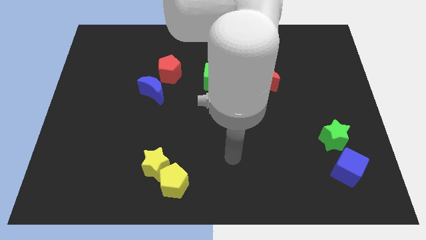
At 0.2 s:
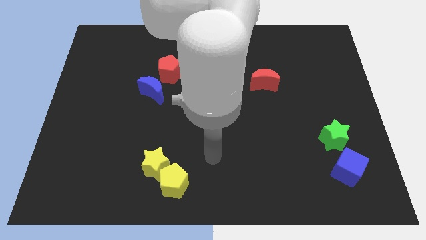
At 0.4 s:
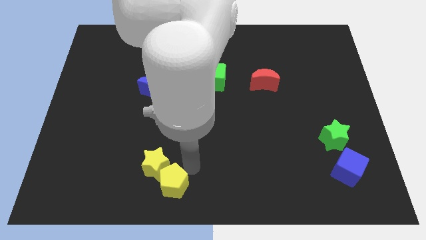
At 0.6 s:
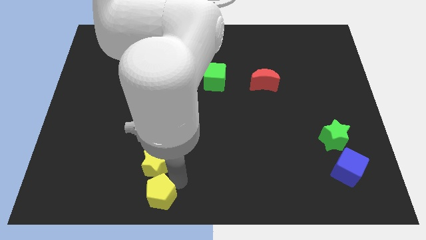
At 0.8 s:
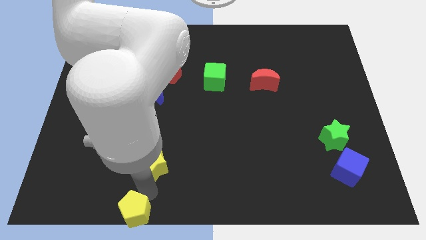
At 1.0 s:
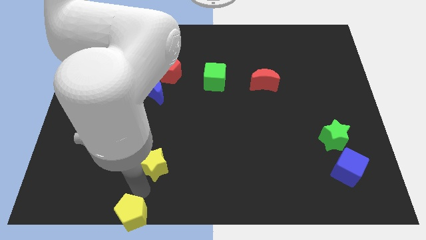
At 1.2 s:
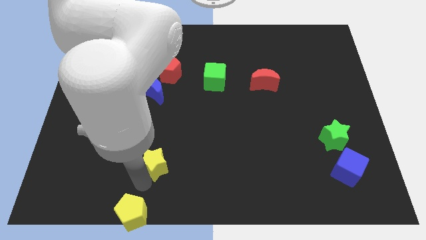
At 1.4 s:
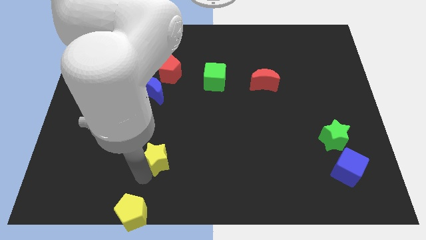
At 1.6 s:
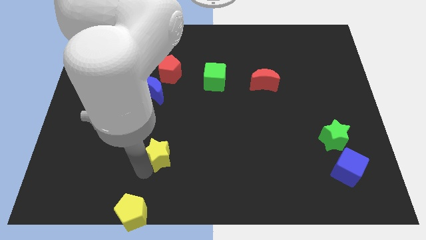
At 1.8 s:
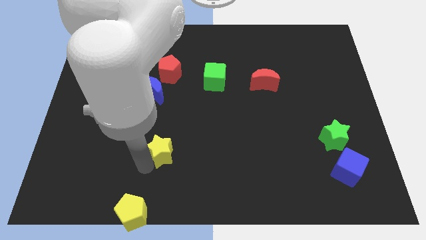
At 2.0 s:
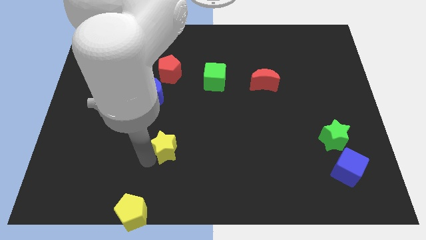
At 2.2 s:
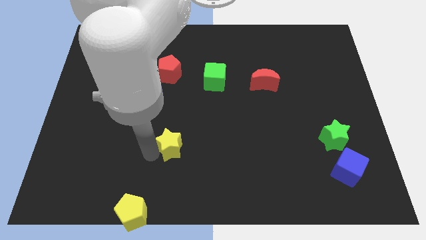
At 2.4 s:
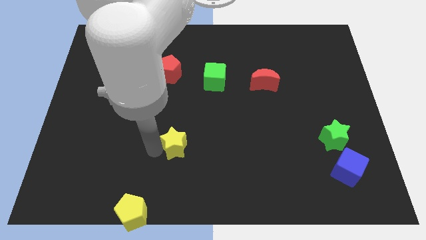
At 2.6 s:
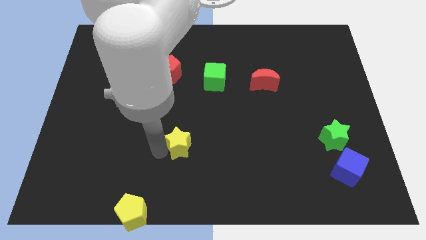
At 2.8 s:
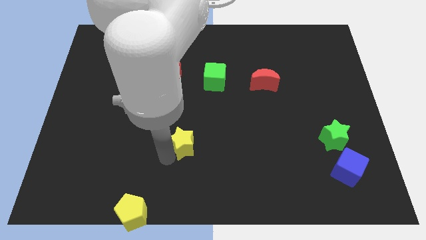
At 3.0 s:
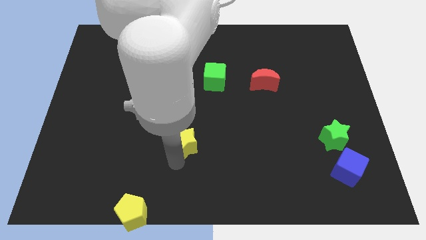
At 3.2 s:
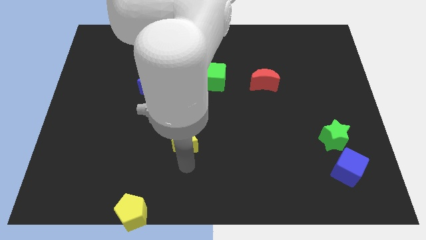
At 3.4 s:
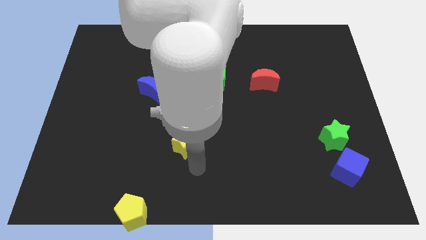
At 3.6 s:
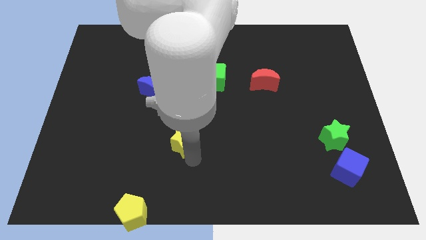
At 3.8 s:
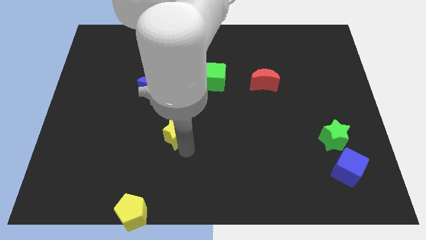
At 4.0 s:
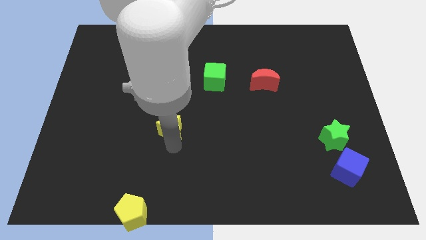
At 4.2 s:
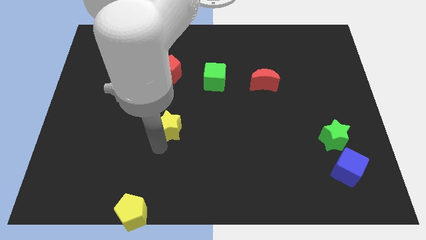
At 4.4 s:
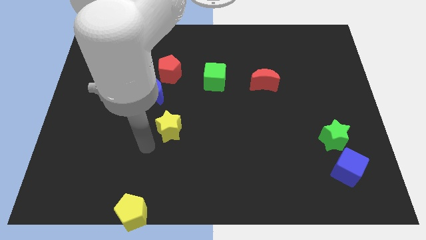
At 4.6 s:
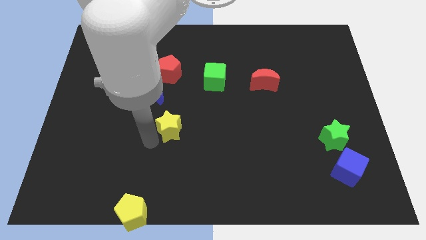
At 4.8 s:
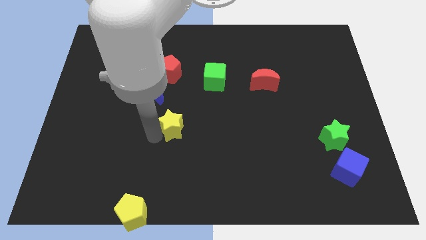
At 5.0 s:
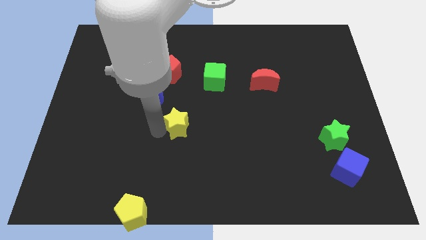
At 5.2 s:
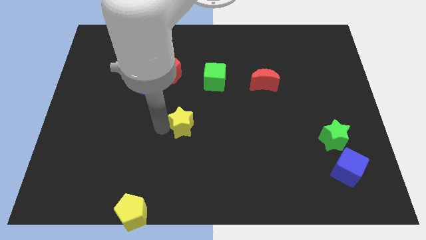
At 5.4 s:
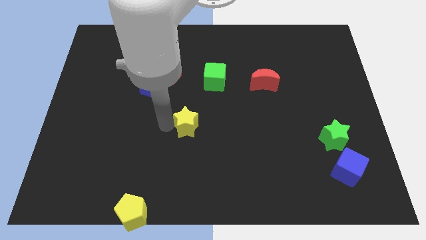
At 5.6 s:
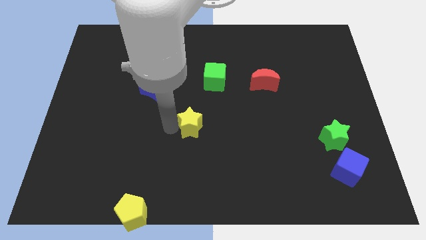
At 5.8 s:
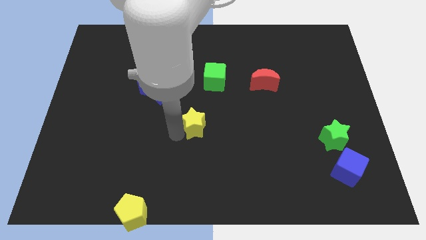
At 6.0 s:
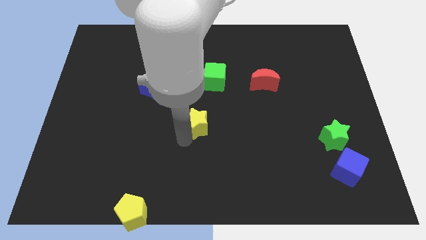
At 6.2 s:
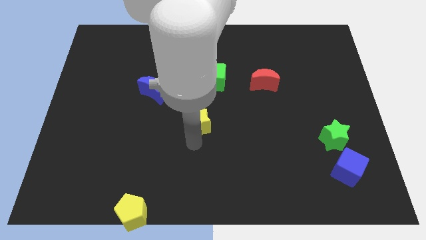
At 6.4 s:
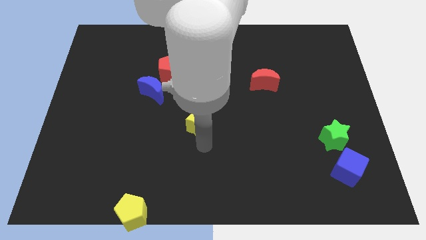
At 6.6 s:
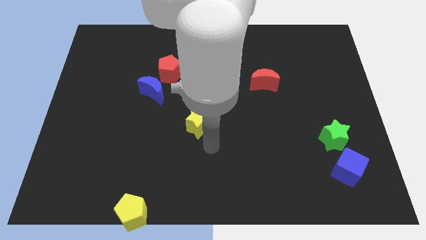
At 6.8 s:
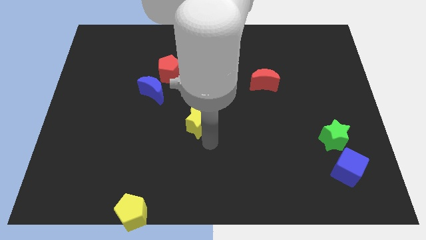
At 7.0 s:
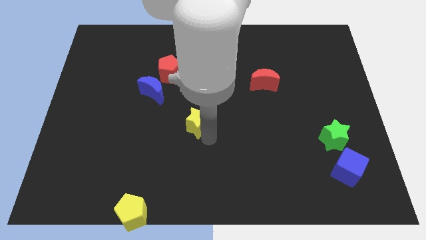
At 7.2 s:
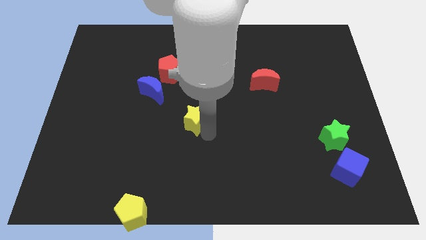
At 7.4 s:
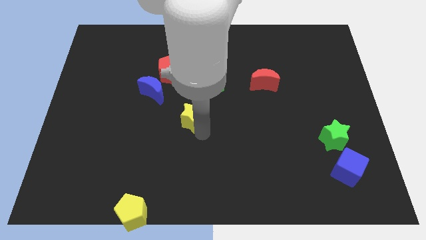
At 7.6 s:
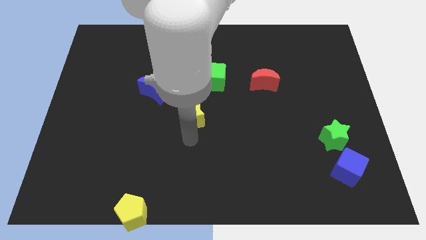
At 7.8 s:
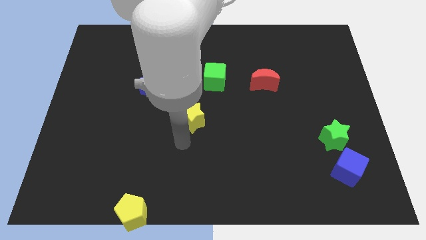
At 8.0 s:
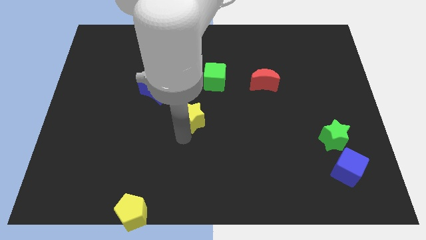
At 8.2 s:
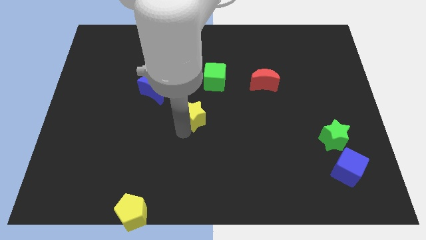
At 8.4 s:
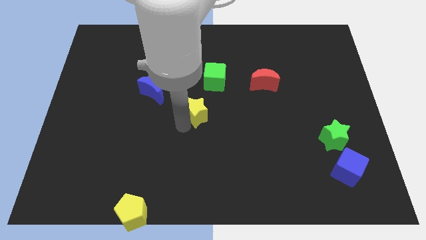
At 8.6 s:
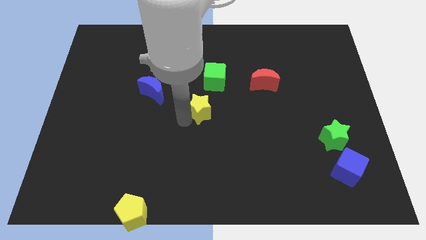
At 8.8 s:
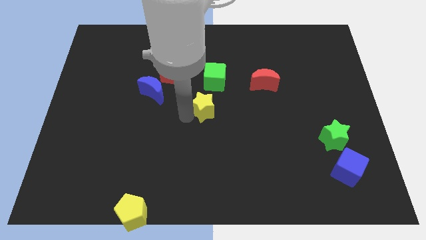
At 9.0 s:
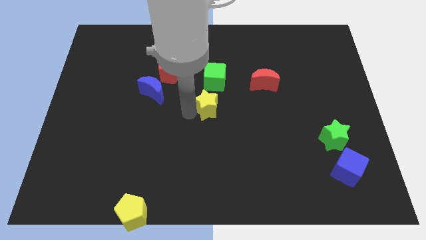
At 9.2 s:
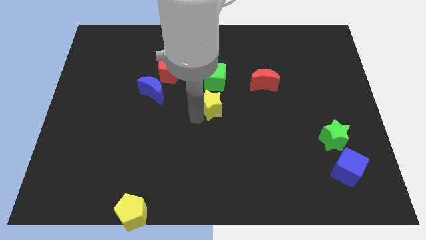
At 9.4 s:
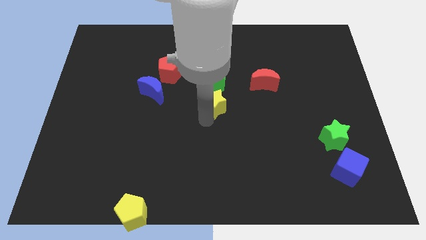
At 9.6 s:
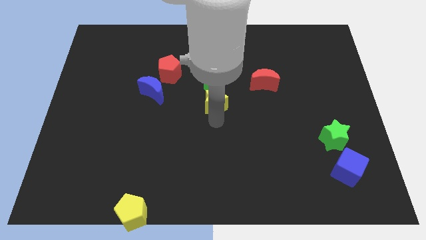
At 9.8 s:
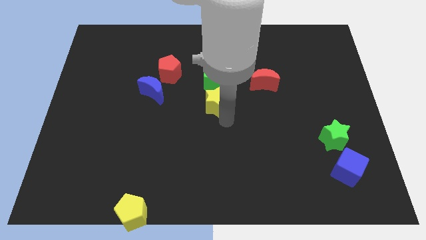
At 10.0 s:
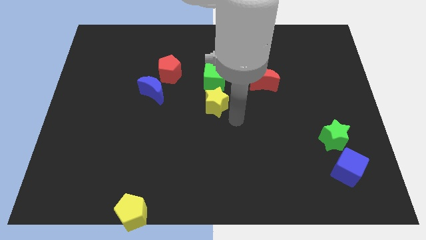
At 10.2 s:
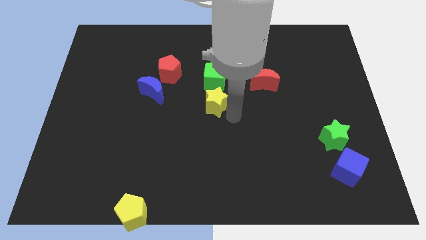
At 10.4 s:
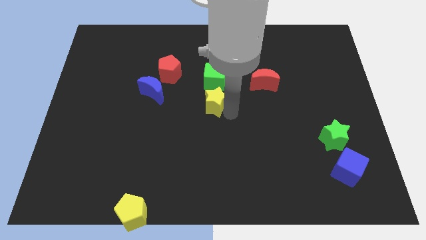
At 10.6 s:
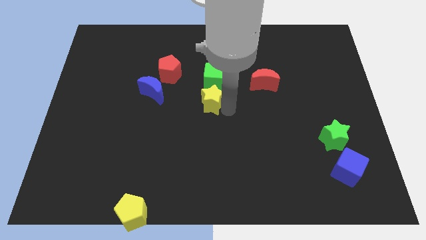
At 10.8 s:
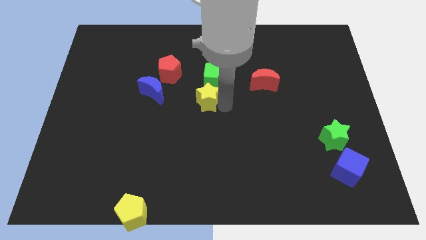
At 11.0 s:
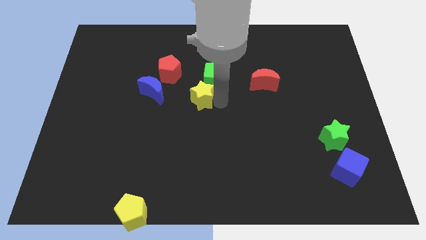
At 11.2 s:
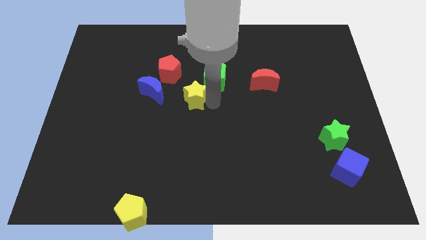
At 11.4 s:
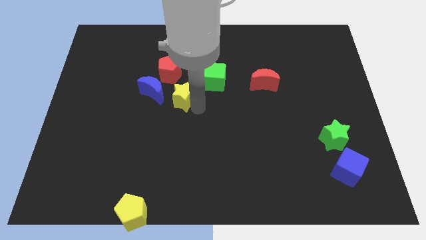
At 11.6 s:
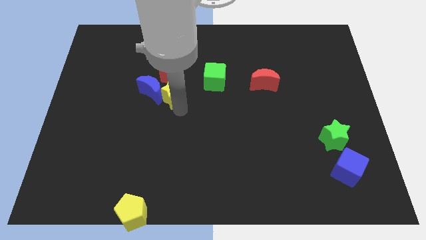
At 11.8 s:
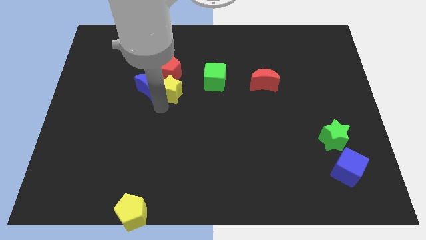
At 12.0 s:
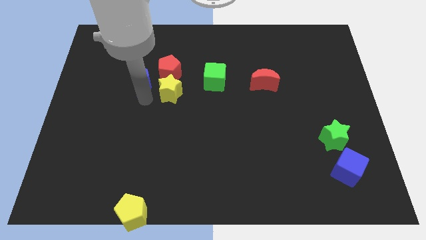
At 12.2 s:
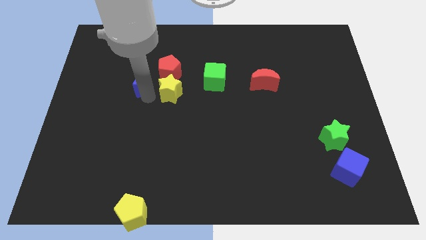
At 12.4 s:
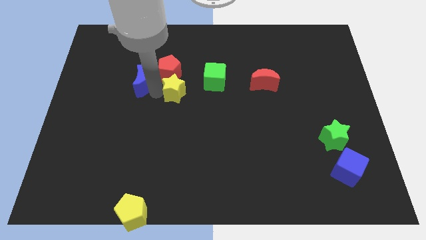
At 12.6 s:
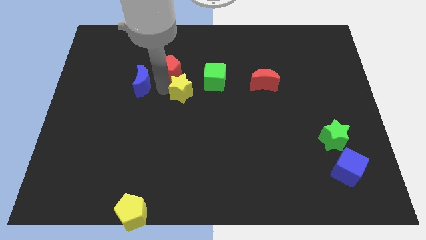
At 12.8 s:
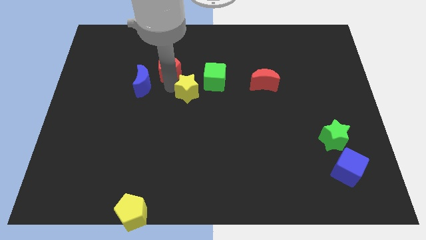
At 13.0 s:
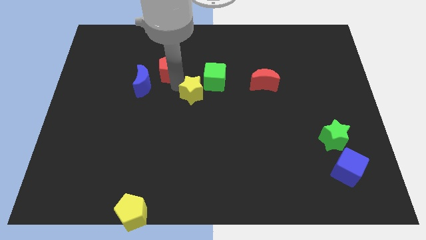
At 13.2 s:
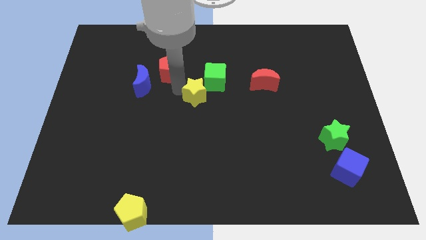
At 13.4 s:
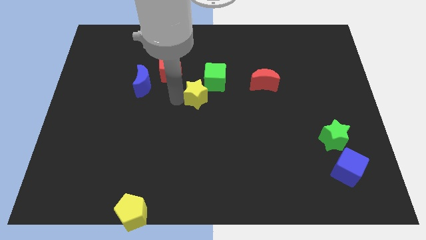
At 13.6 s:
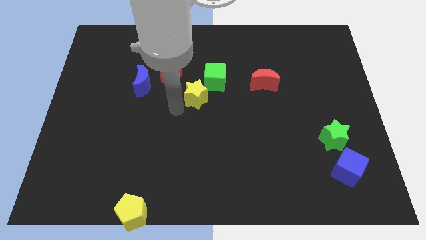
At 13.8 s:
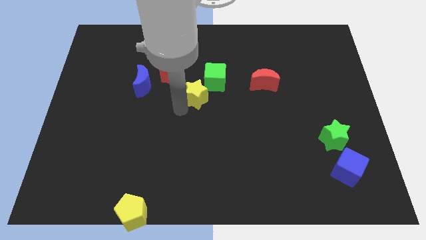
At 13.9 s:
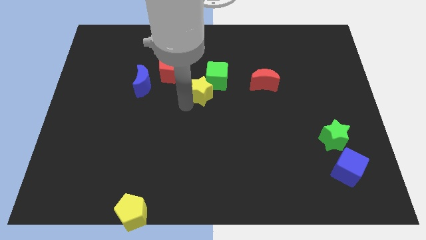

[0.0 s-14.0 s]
put the yellow star towards the green cube
